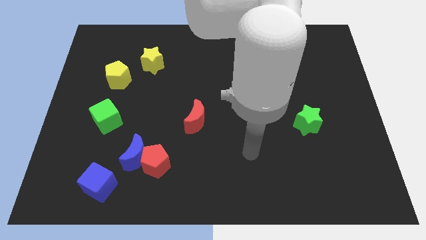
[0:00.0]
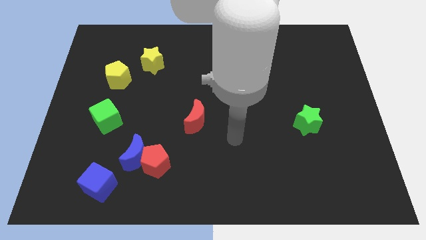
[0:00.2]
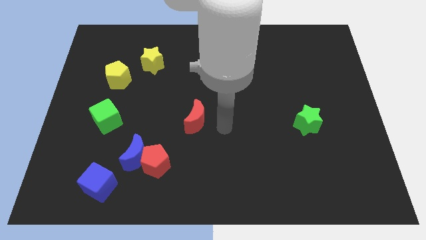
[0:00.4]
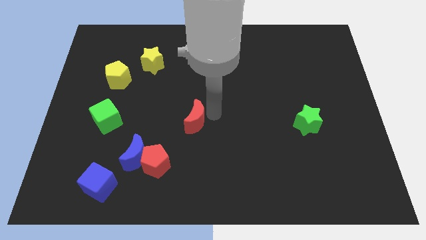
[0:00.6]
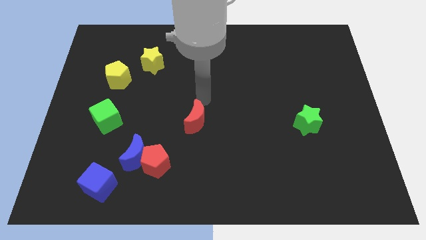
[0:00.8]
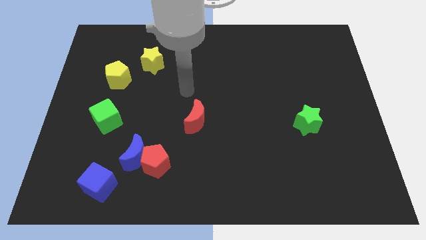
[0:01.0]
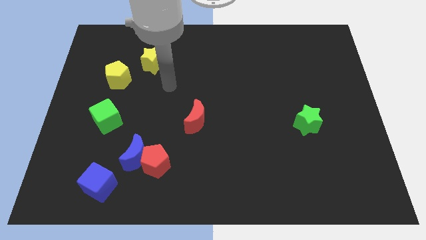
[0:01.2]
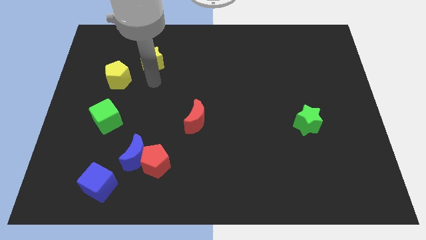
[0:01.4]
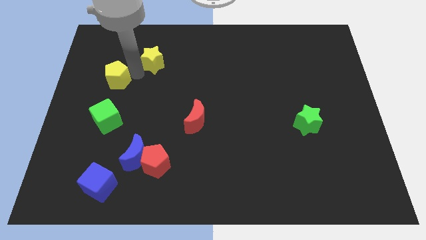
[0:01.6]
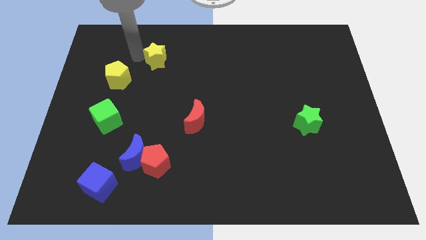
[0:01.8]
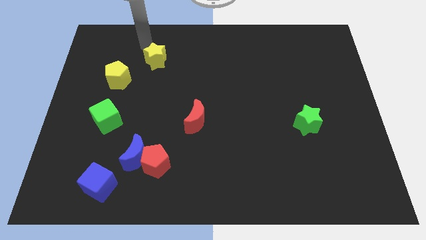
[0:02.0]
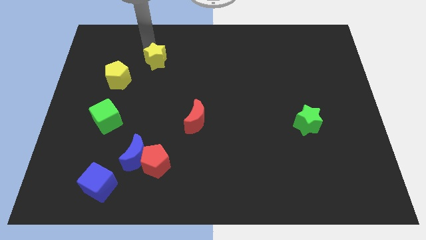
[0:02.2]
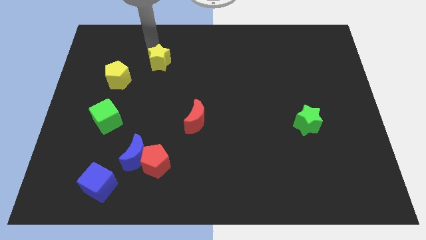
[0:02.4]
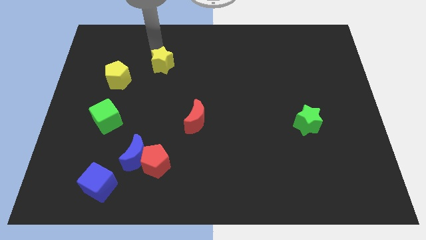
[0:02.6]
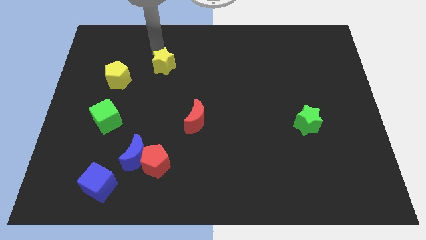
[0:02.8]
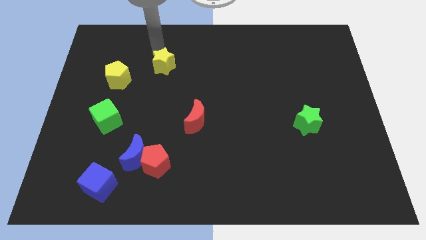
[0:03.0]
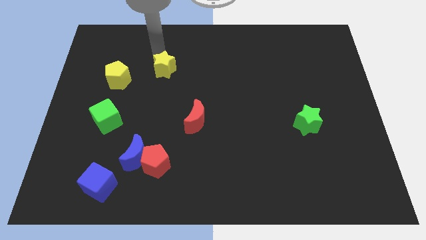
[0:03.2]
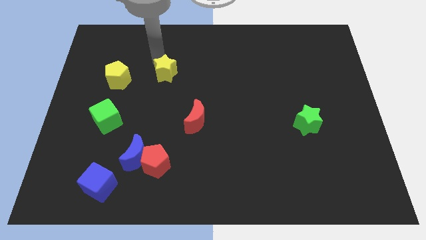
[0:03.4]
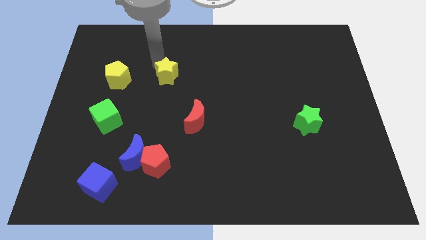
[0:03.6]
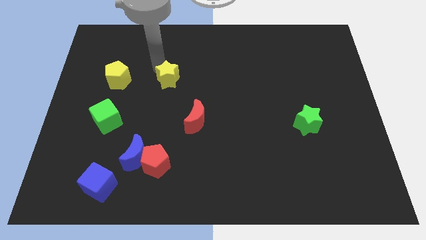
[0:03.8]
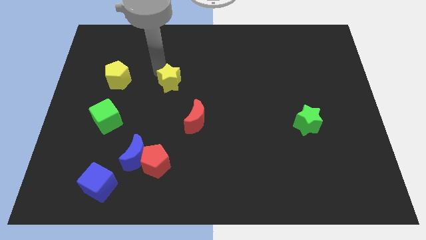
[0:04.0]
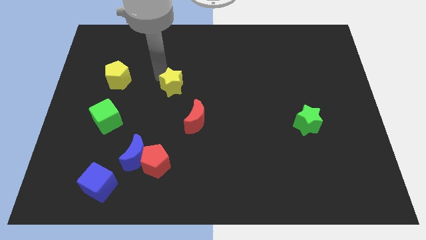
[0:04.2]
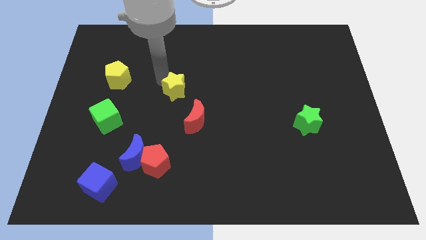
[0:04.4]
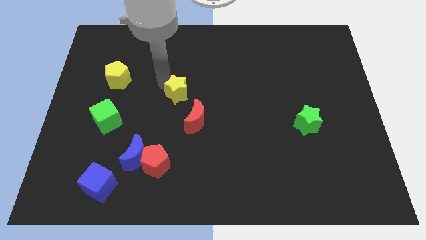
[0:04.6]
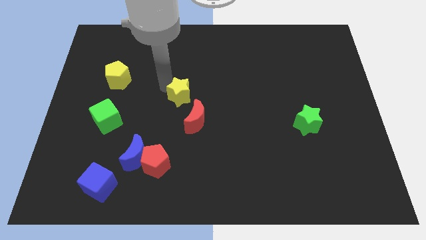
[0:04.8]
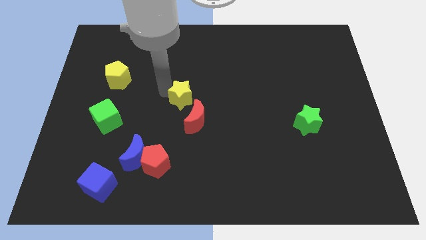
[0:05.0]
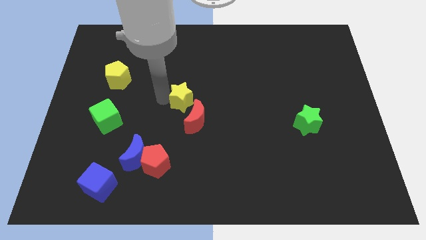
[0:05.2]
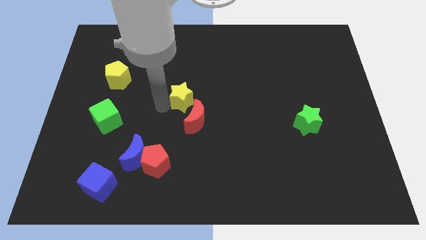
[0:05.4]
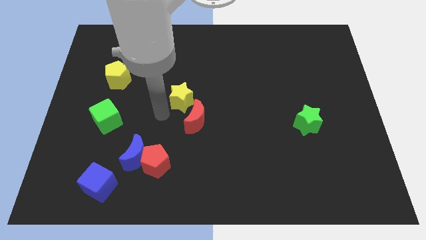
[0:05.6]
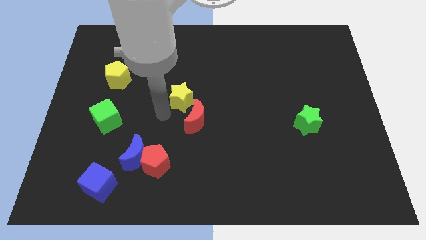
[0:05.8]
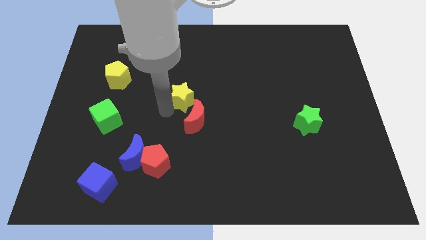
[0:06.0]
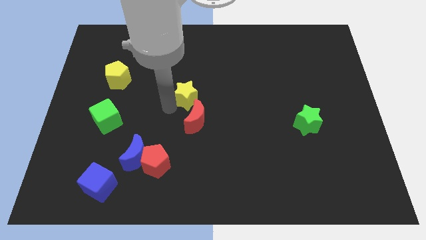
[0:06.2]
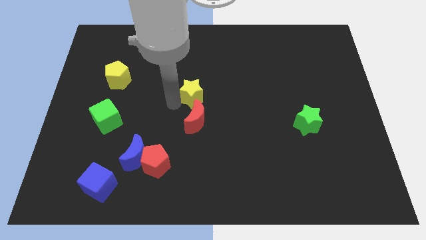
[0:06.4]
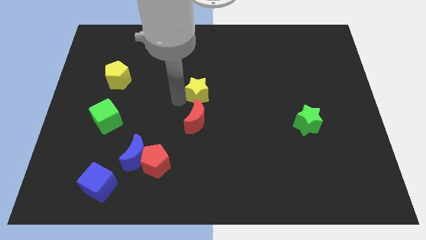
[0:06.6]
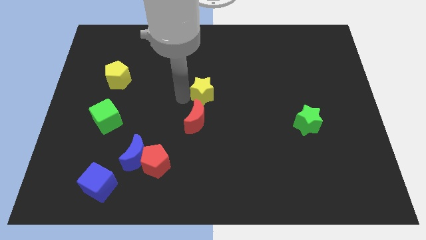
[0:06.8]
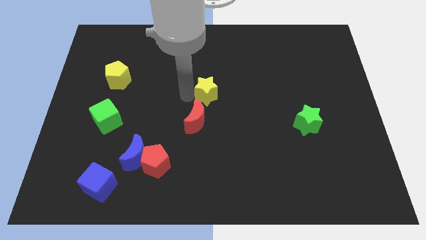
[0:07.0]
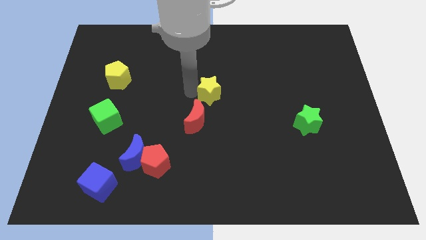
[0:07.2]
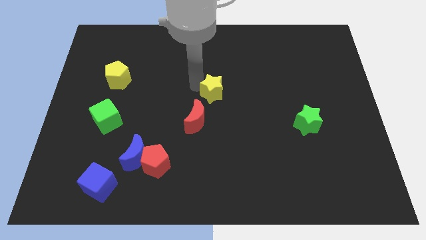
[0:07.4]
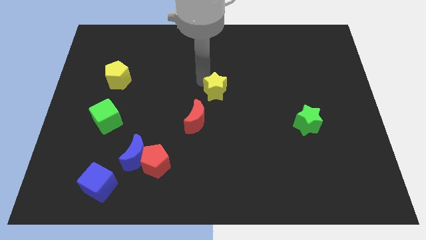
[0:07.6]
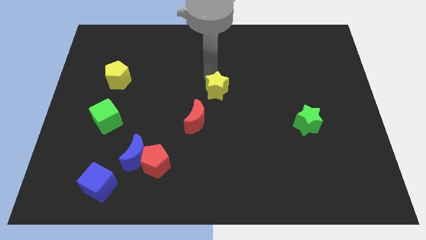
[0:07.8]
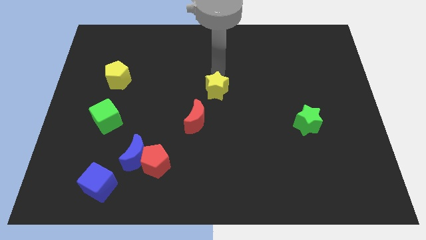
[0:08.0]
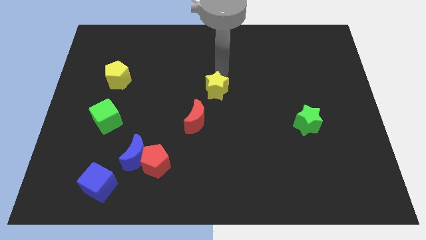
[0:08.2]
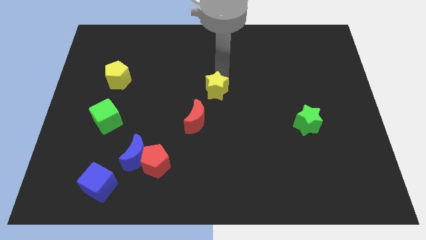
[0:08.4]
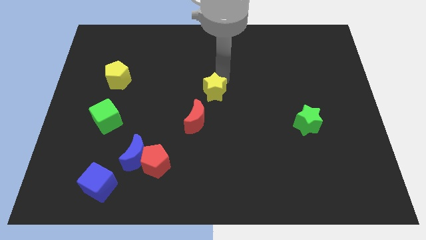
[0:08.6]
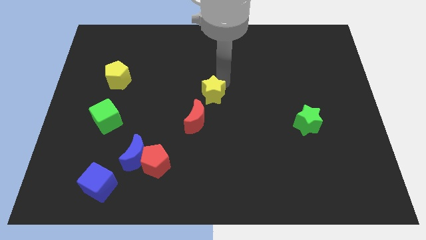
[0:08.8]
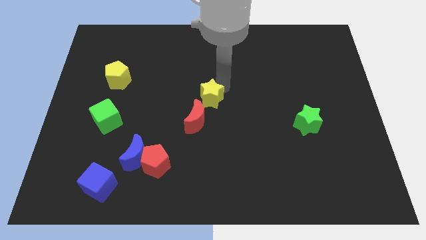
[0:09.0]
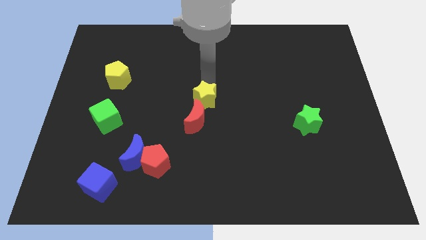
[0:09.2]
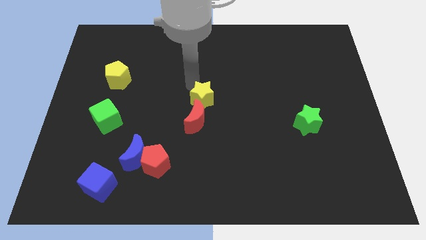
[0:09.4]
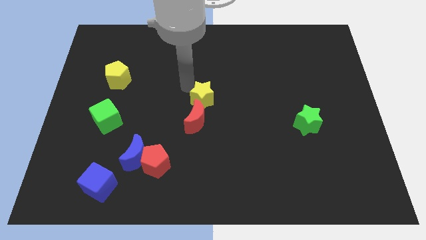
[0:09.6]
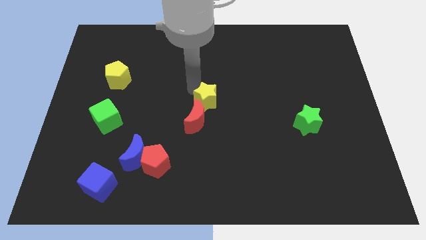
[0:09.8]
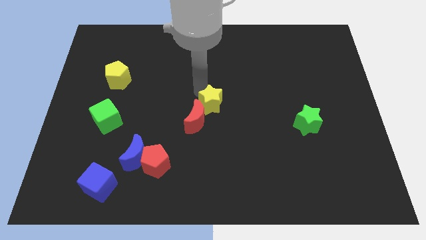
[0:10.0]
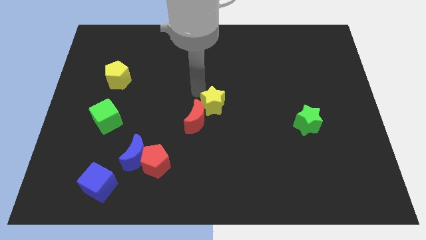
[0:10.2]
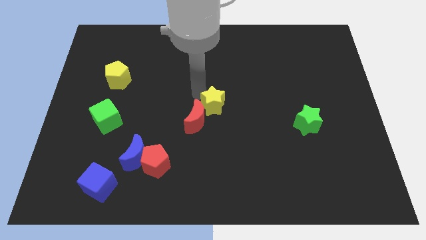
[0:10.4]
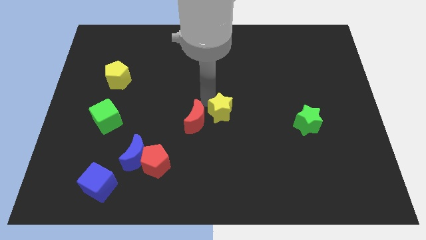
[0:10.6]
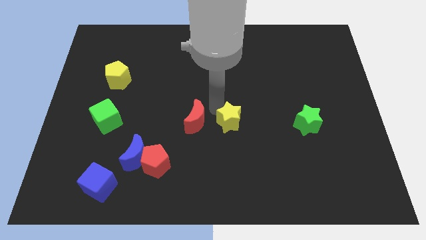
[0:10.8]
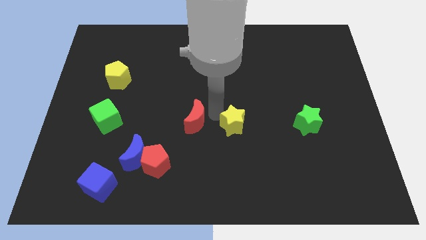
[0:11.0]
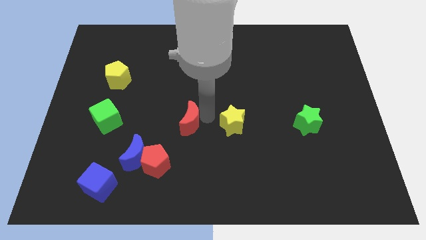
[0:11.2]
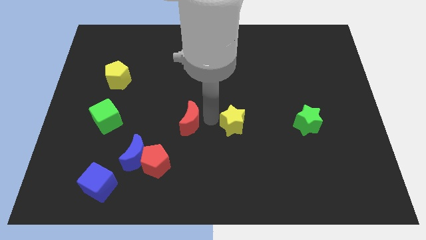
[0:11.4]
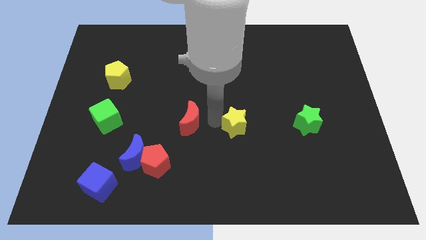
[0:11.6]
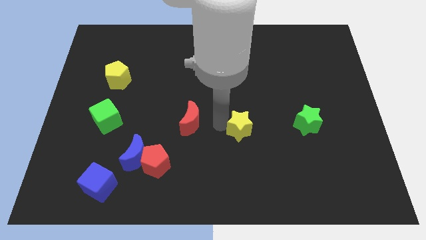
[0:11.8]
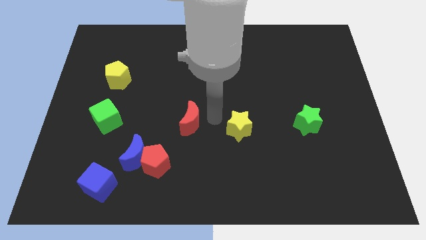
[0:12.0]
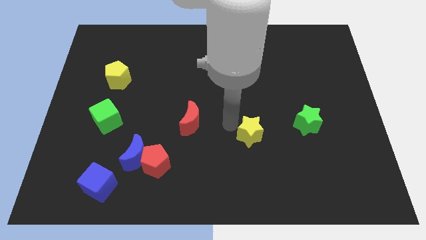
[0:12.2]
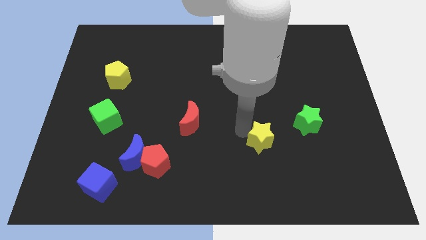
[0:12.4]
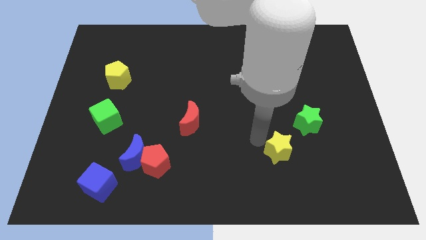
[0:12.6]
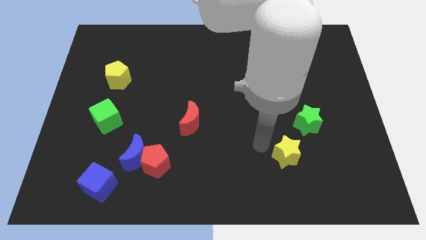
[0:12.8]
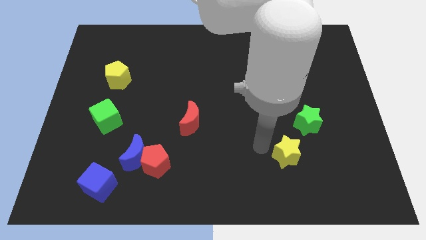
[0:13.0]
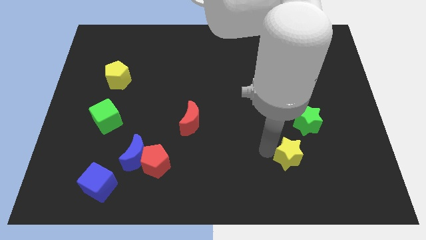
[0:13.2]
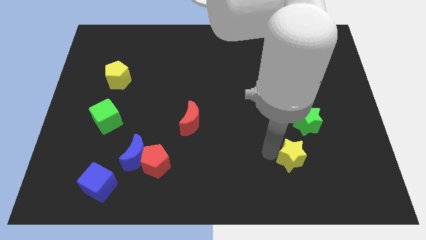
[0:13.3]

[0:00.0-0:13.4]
slide the yellow star to the bottom side of the green star
